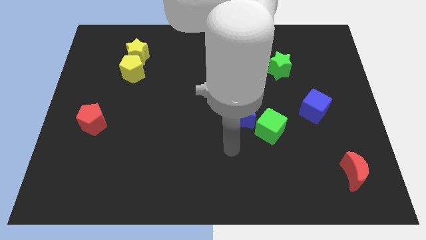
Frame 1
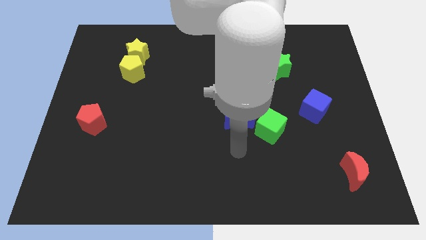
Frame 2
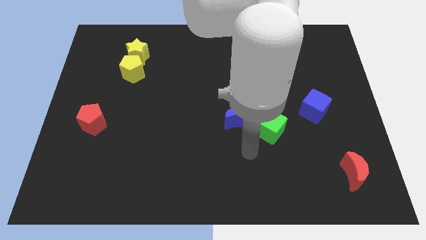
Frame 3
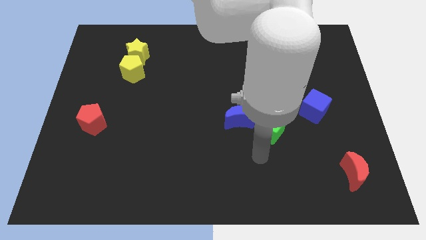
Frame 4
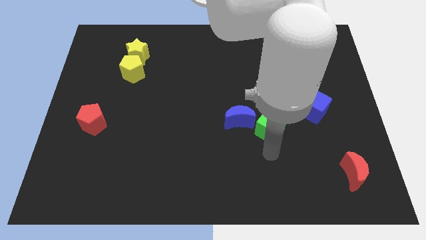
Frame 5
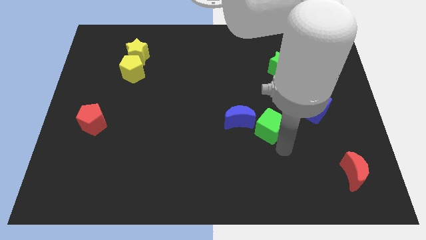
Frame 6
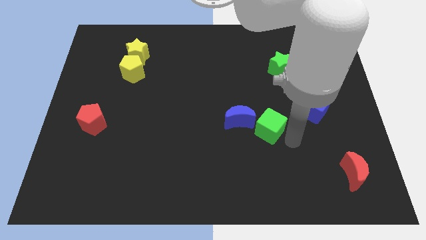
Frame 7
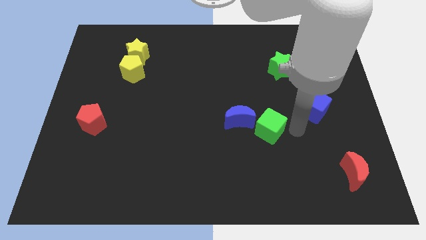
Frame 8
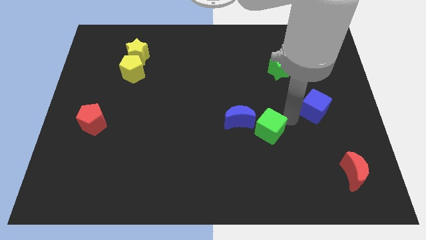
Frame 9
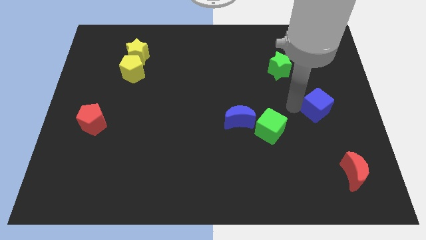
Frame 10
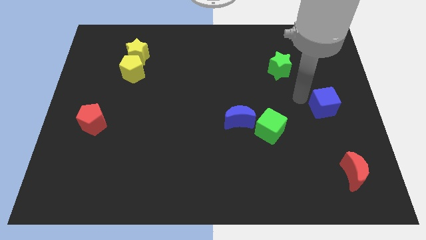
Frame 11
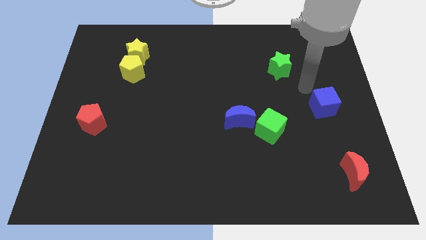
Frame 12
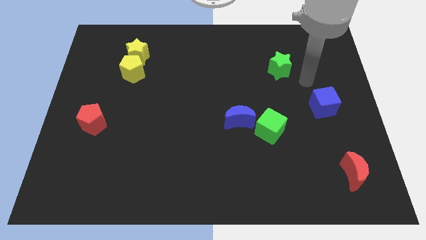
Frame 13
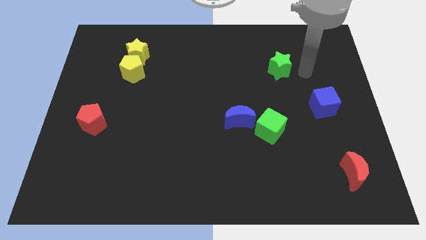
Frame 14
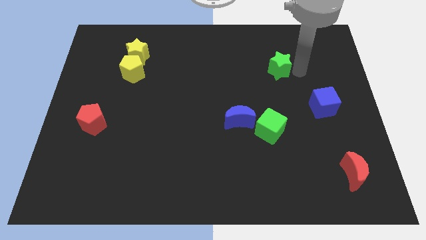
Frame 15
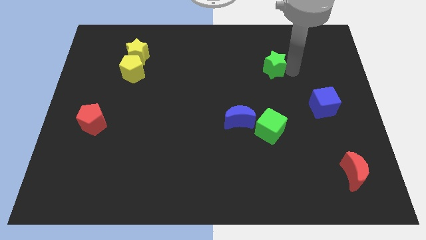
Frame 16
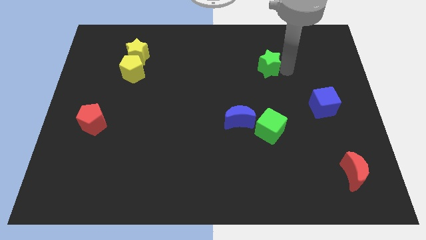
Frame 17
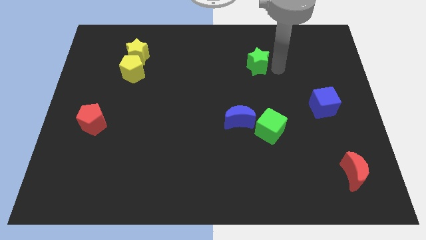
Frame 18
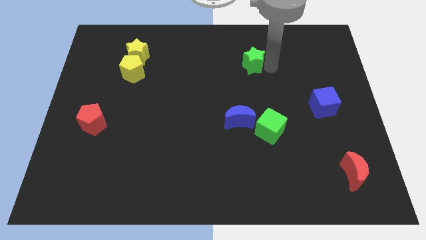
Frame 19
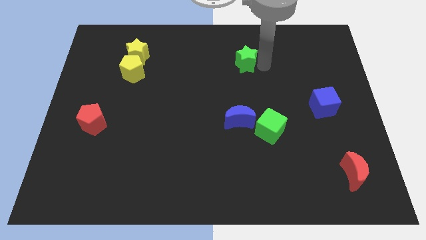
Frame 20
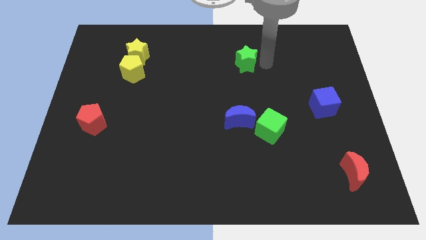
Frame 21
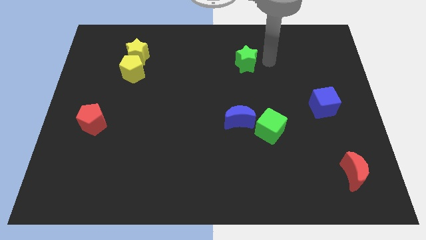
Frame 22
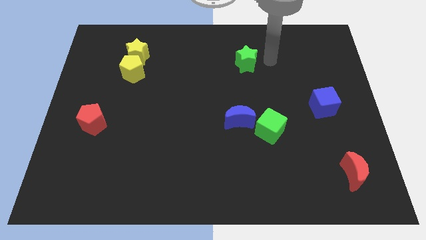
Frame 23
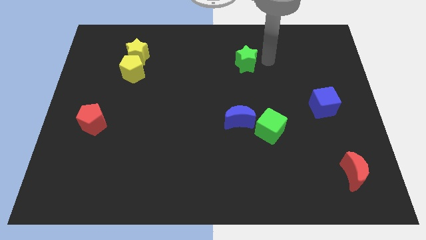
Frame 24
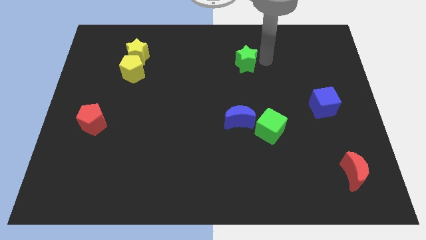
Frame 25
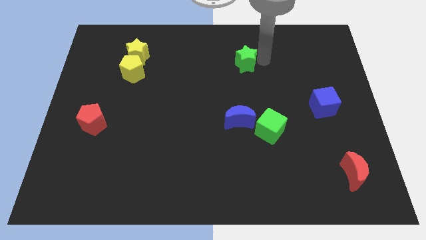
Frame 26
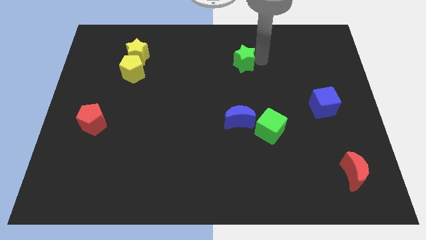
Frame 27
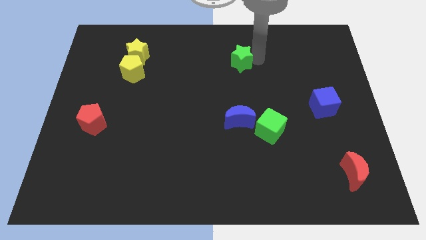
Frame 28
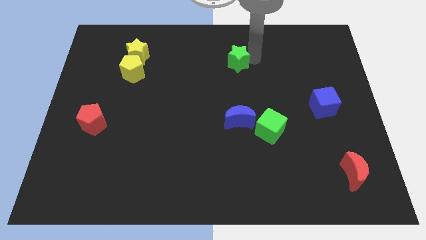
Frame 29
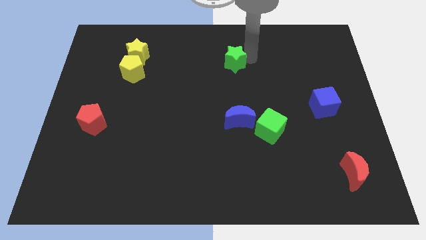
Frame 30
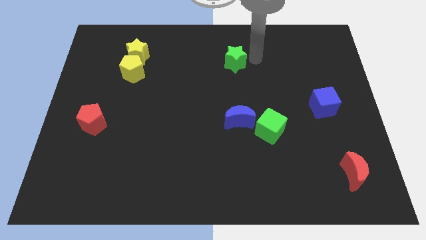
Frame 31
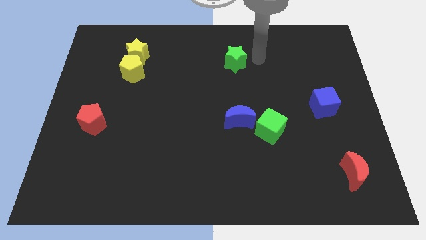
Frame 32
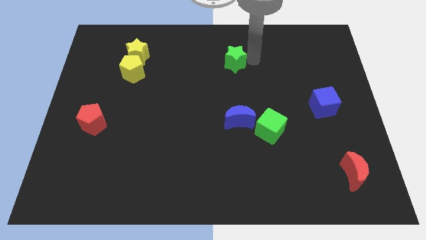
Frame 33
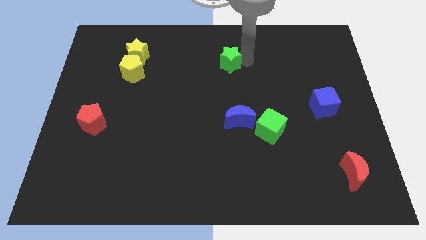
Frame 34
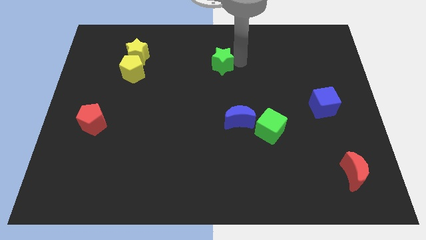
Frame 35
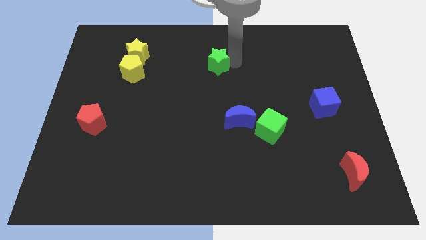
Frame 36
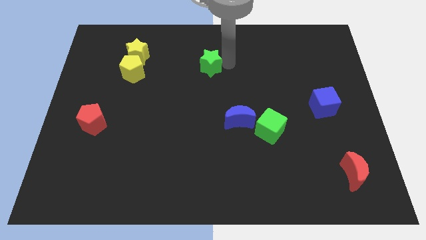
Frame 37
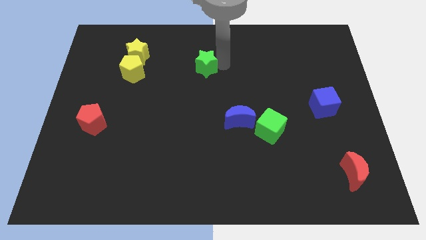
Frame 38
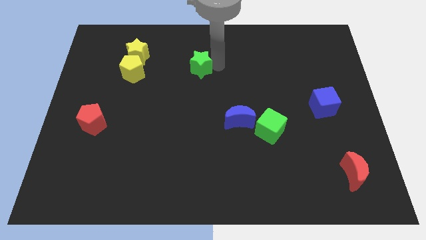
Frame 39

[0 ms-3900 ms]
move the green star left

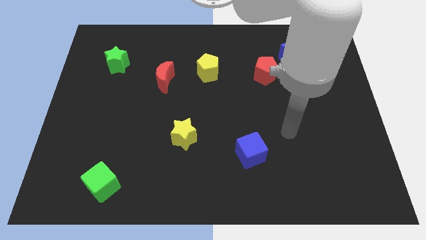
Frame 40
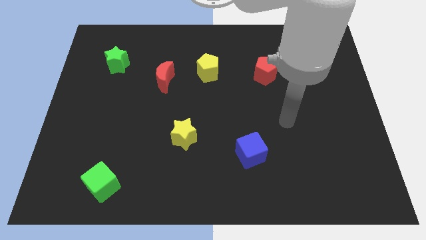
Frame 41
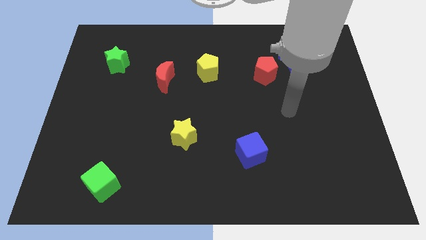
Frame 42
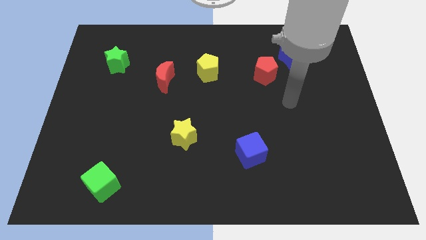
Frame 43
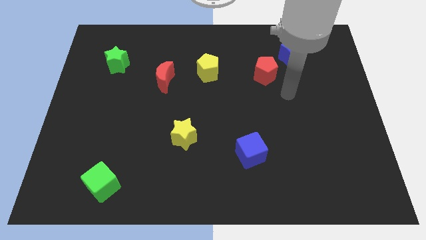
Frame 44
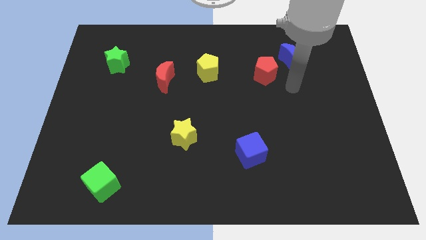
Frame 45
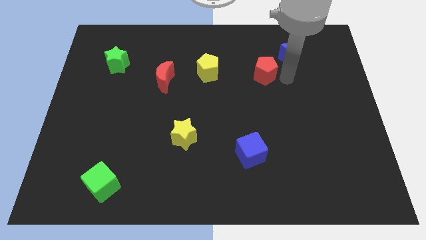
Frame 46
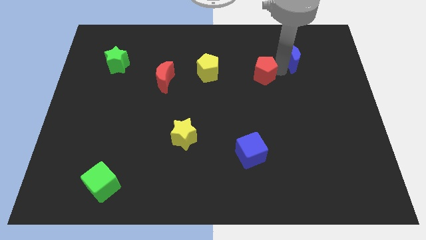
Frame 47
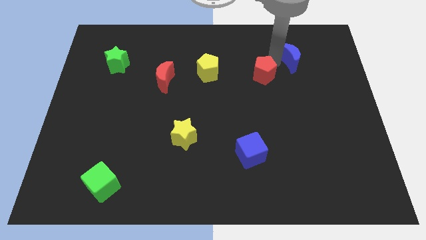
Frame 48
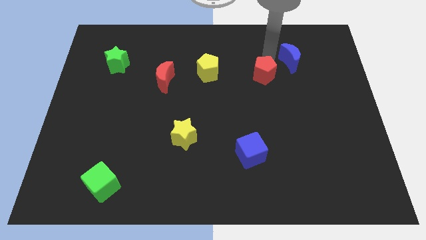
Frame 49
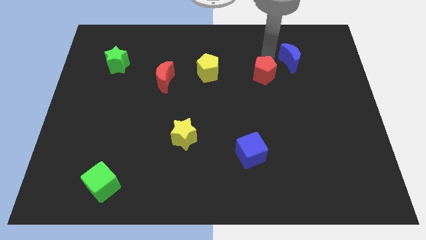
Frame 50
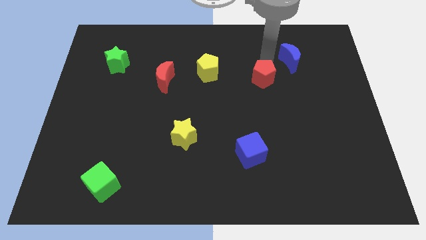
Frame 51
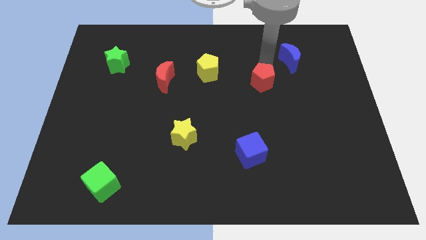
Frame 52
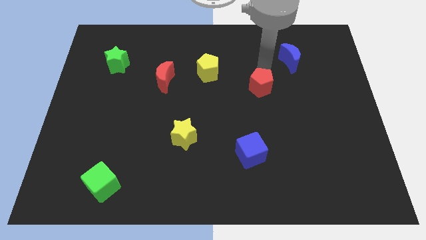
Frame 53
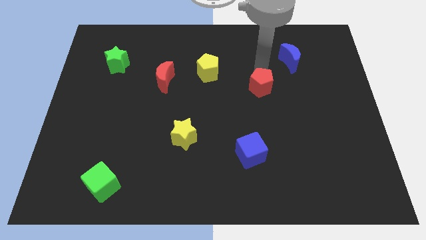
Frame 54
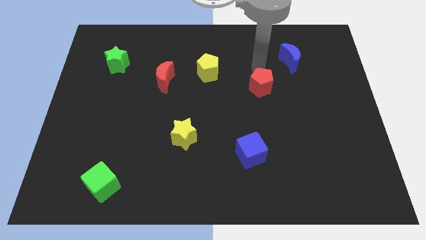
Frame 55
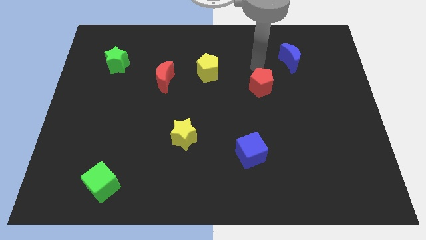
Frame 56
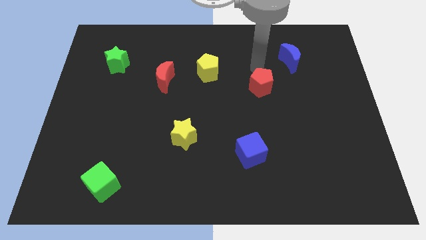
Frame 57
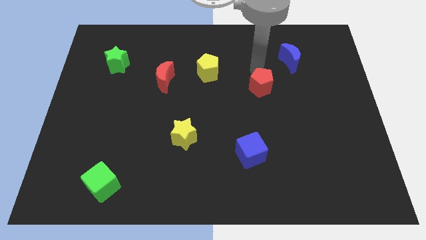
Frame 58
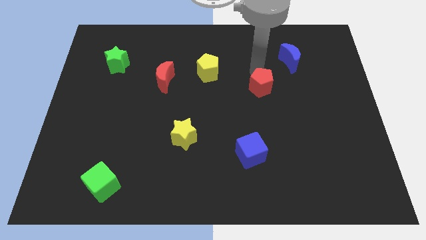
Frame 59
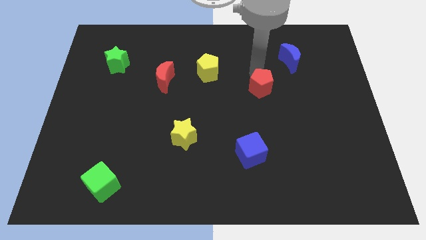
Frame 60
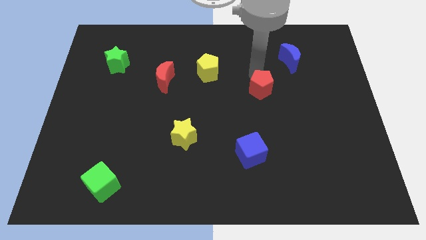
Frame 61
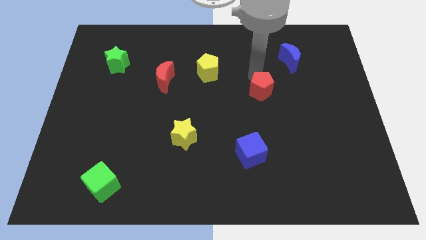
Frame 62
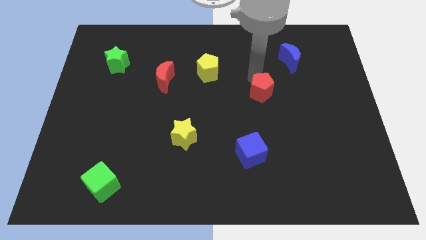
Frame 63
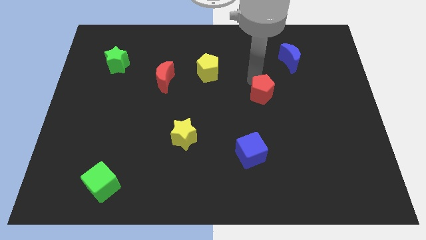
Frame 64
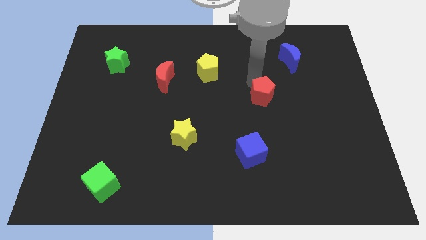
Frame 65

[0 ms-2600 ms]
move the red pentagon downwards a bit

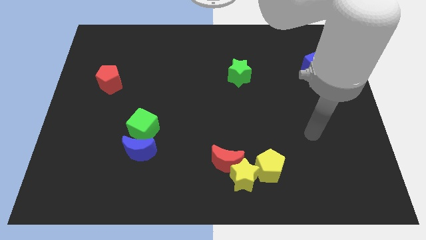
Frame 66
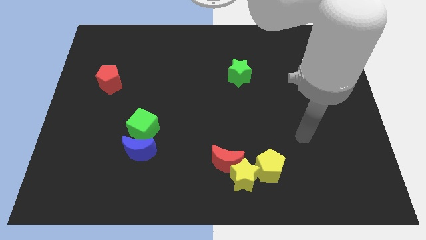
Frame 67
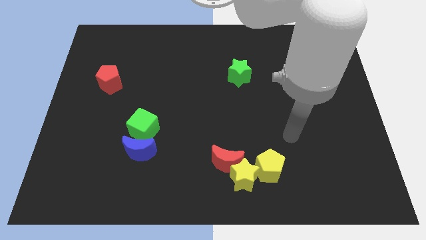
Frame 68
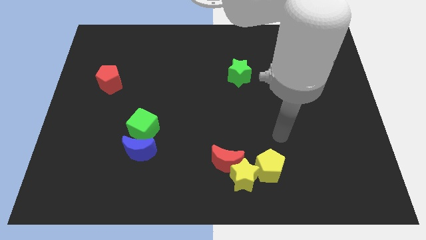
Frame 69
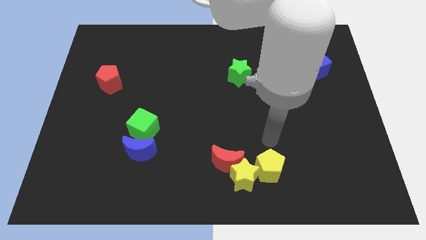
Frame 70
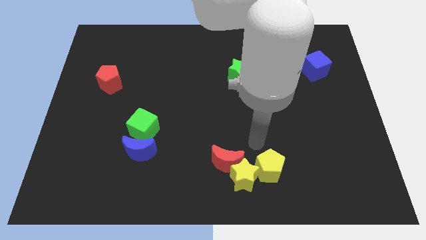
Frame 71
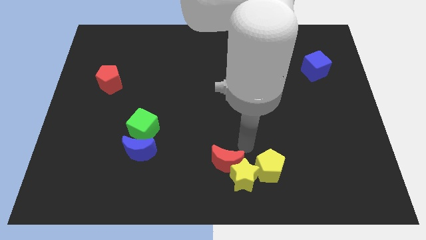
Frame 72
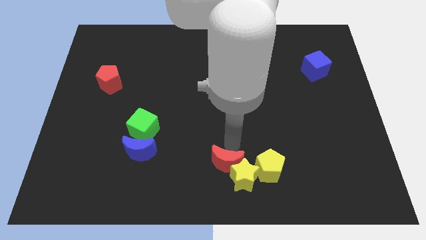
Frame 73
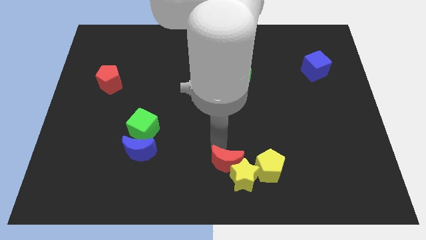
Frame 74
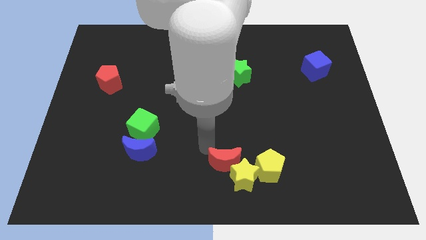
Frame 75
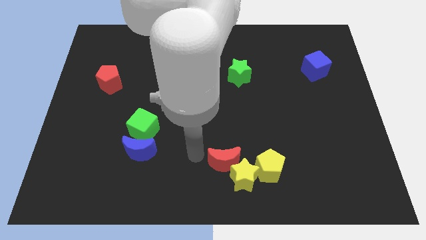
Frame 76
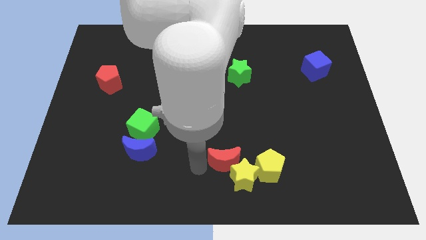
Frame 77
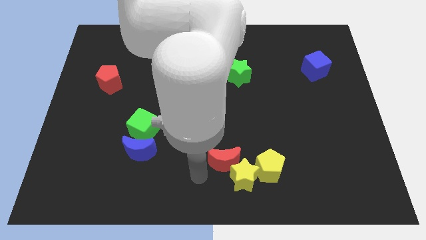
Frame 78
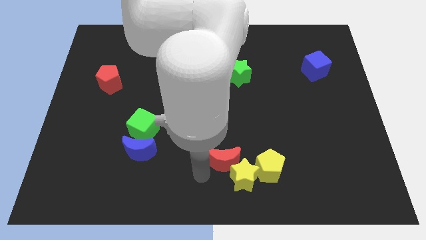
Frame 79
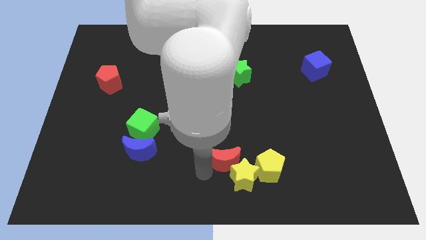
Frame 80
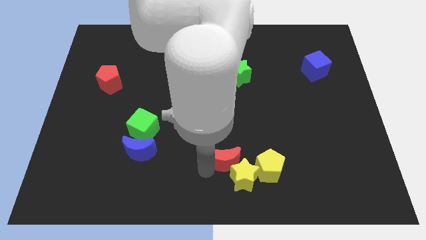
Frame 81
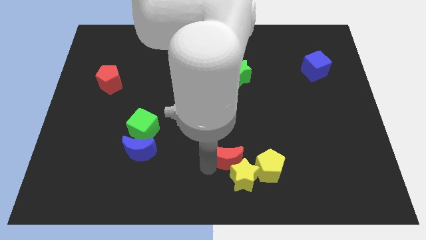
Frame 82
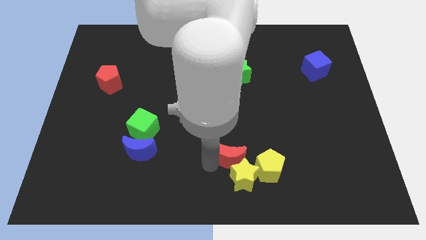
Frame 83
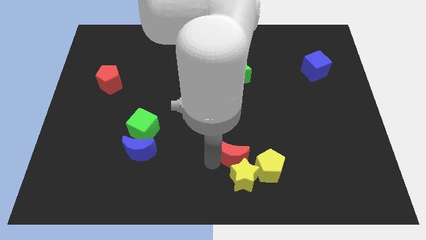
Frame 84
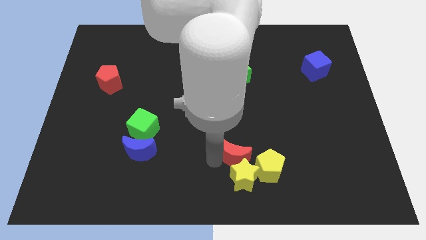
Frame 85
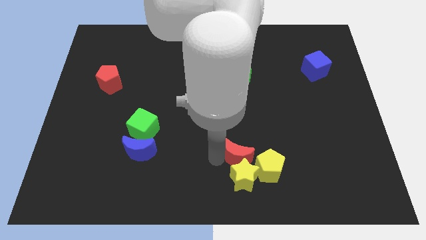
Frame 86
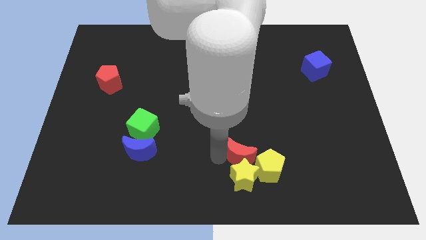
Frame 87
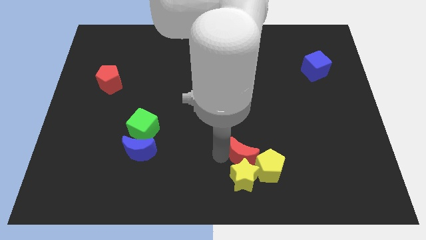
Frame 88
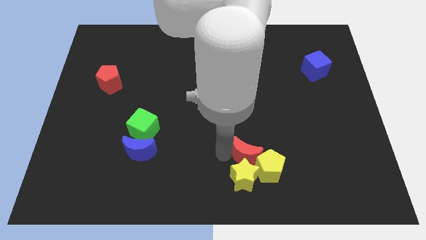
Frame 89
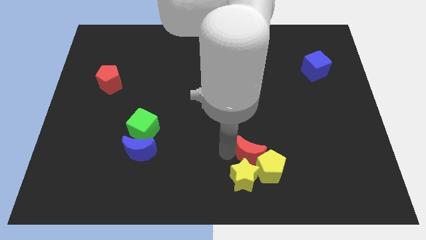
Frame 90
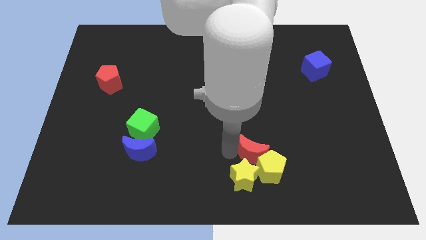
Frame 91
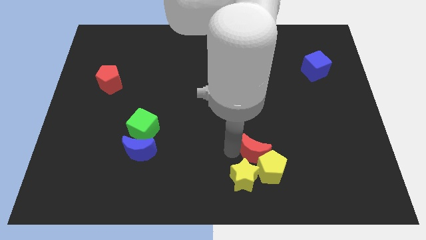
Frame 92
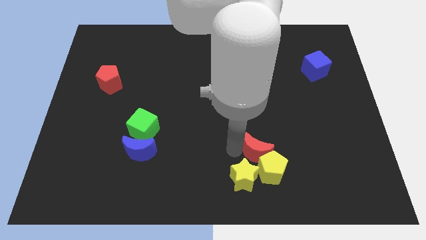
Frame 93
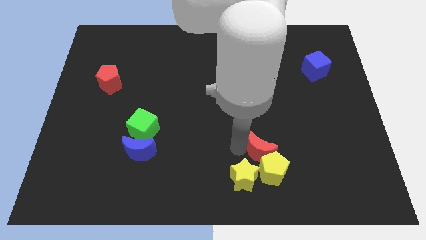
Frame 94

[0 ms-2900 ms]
slide the red moon to the right a bit
